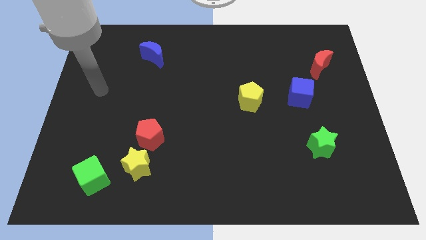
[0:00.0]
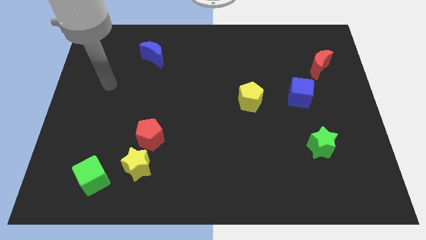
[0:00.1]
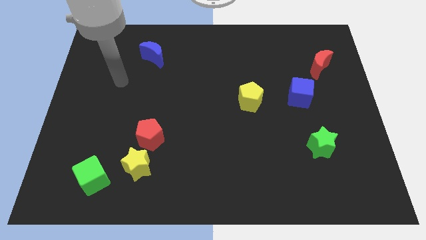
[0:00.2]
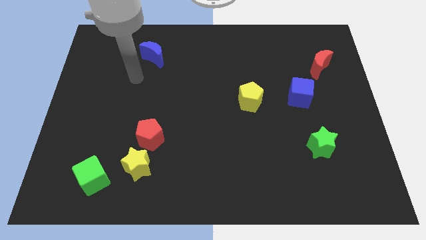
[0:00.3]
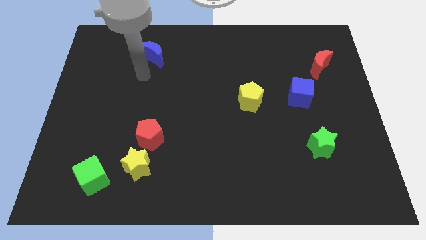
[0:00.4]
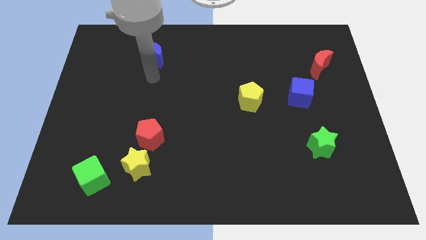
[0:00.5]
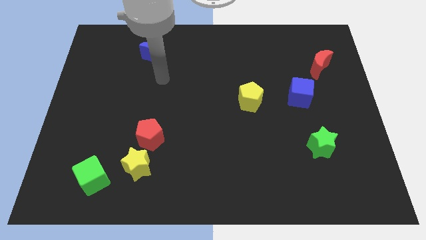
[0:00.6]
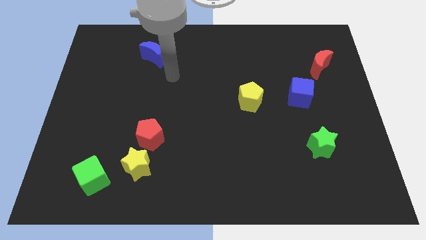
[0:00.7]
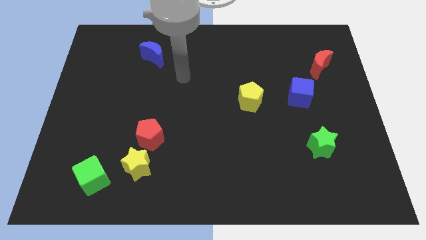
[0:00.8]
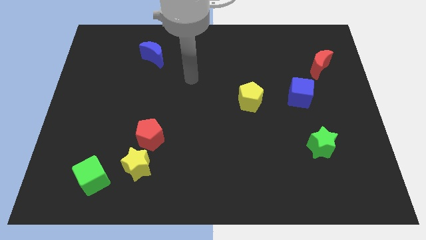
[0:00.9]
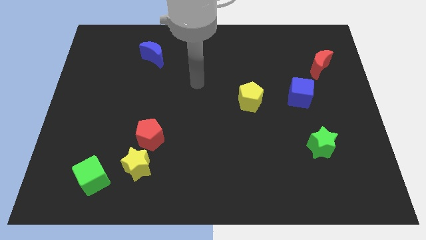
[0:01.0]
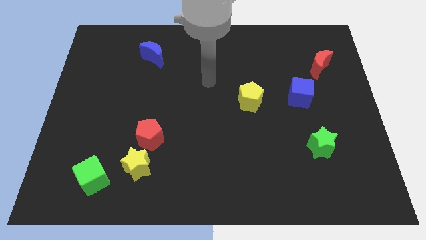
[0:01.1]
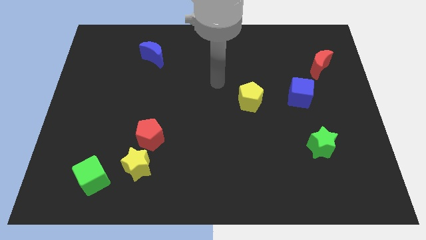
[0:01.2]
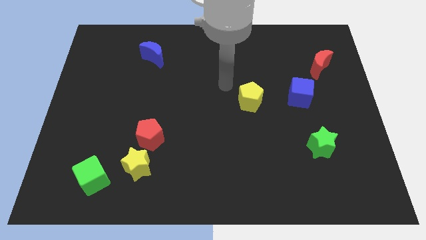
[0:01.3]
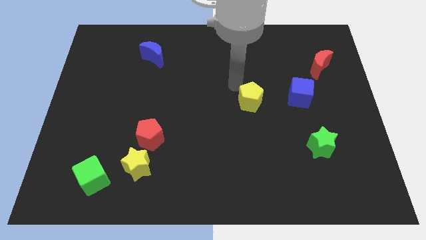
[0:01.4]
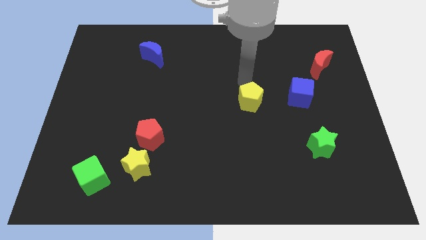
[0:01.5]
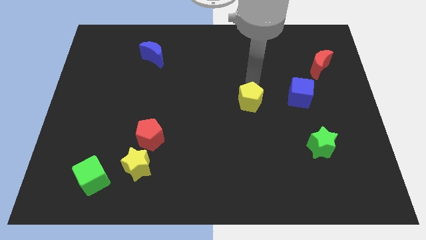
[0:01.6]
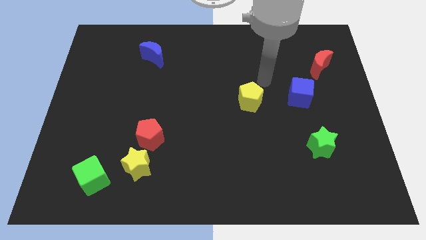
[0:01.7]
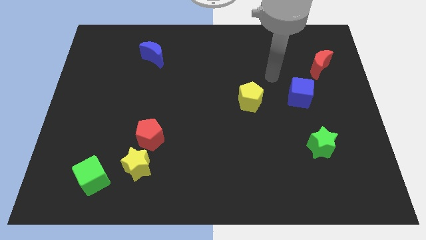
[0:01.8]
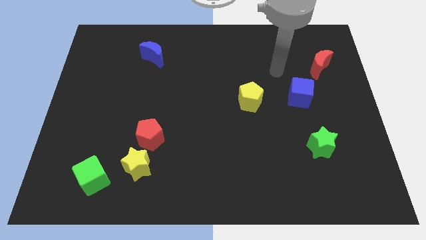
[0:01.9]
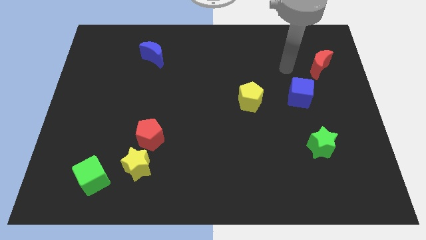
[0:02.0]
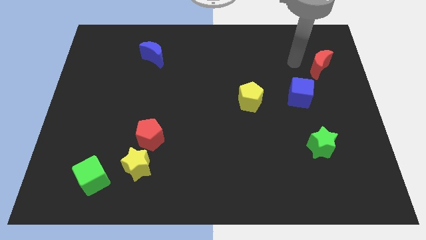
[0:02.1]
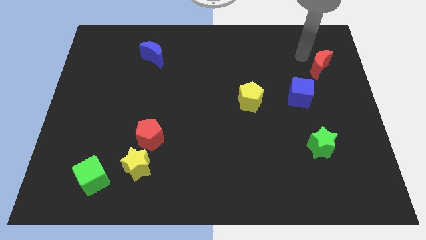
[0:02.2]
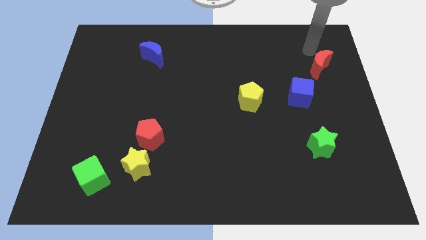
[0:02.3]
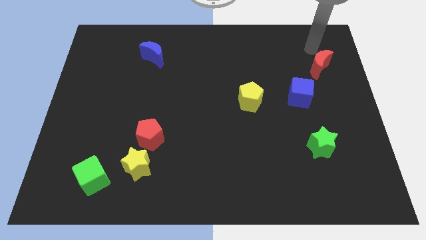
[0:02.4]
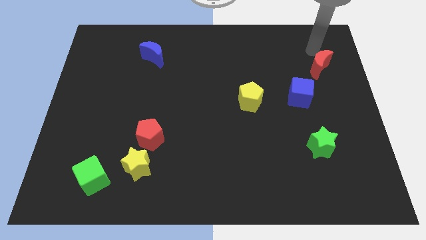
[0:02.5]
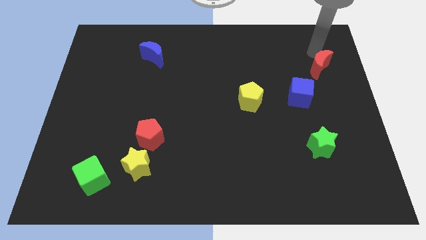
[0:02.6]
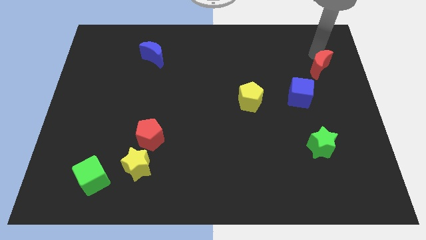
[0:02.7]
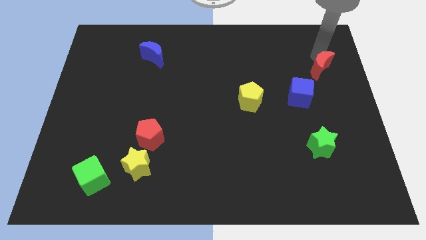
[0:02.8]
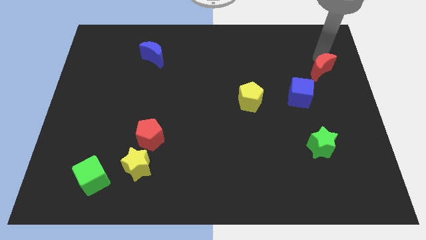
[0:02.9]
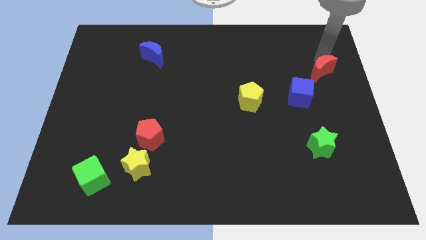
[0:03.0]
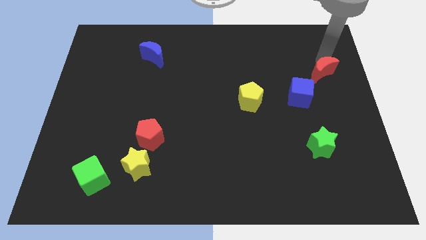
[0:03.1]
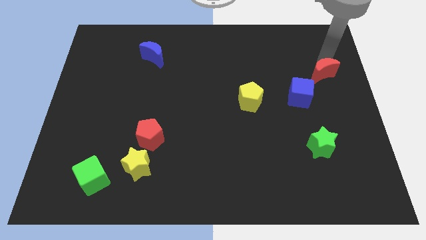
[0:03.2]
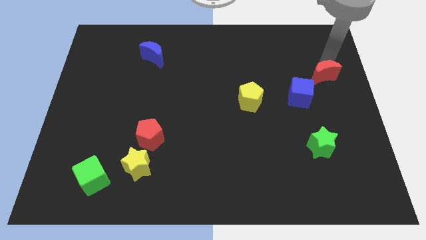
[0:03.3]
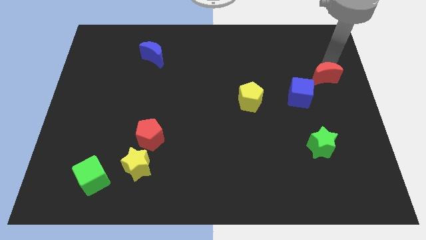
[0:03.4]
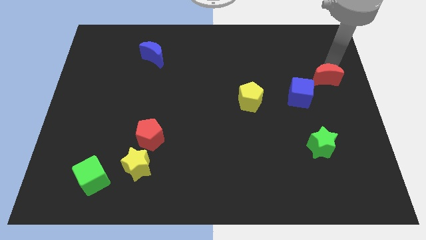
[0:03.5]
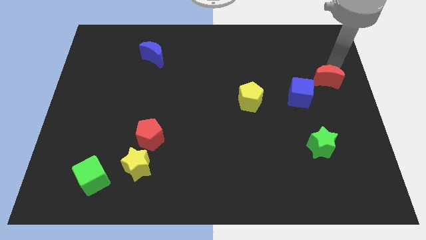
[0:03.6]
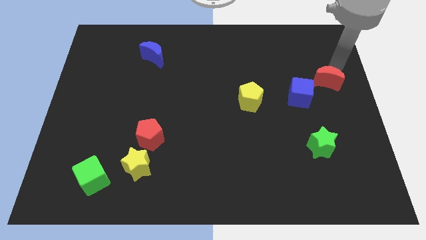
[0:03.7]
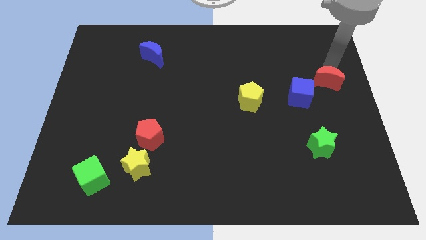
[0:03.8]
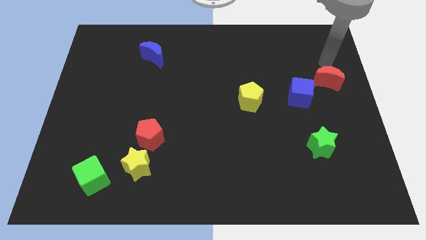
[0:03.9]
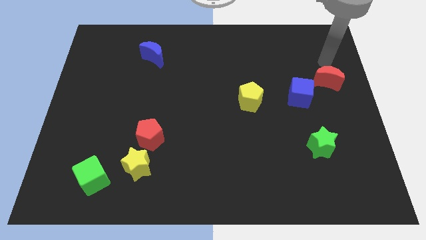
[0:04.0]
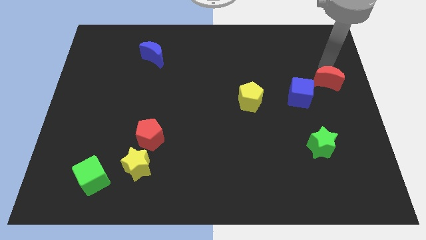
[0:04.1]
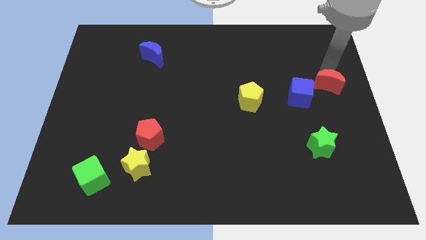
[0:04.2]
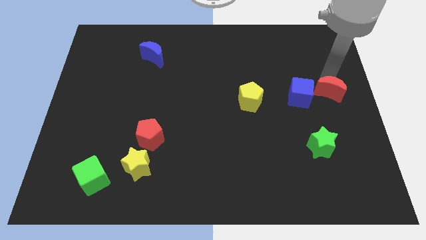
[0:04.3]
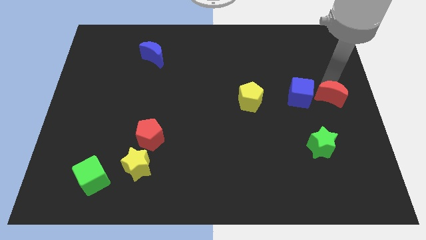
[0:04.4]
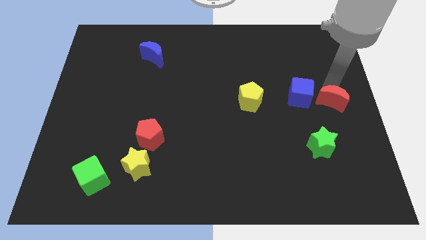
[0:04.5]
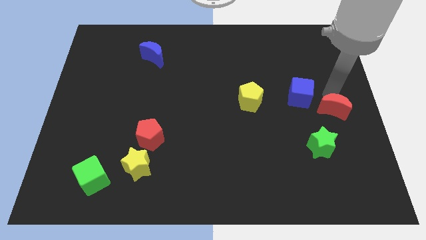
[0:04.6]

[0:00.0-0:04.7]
put the red moon diagonally up and to the right of the green star

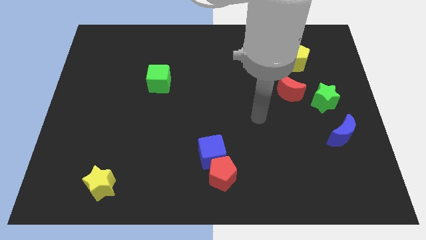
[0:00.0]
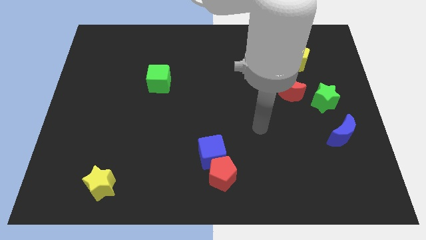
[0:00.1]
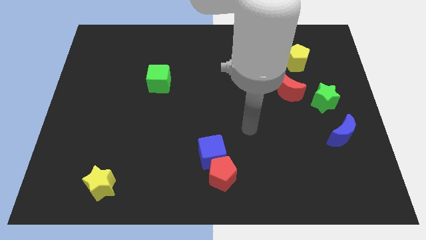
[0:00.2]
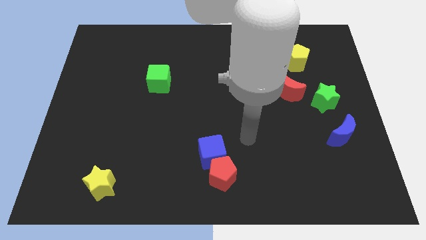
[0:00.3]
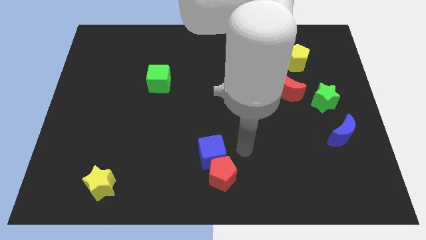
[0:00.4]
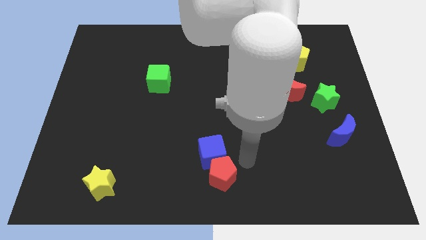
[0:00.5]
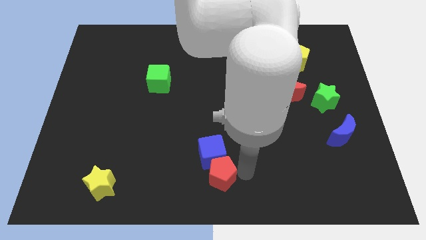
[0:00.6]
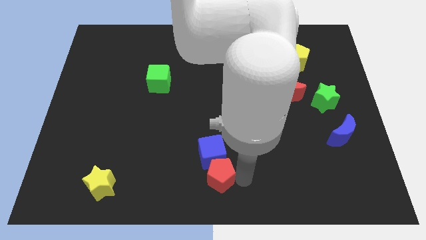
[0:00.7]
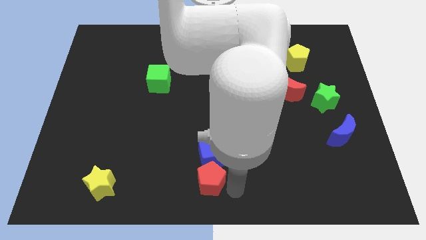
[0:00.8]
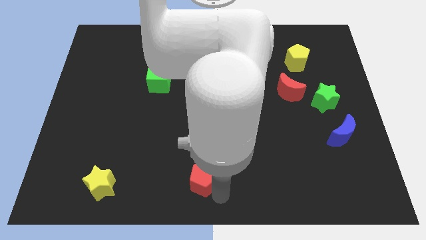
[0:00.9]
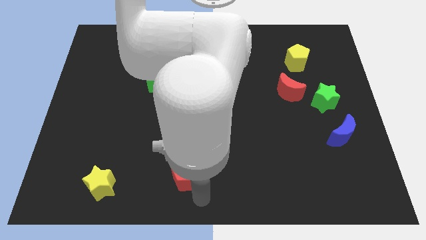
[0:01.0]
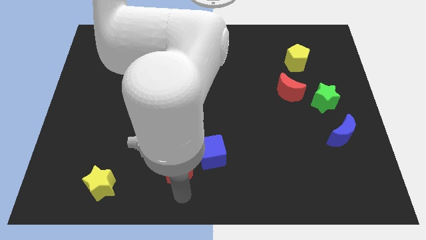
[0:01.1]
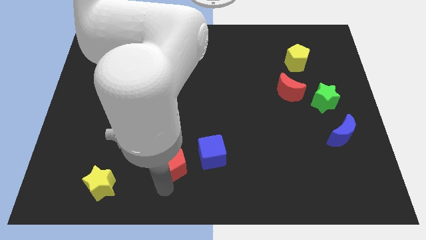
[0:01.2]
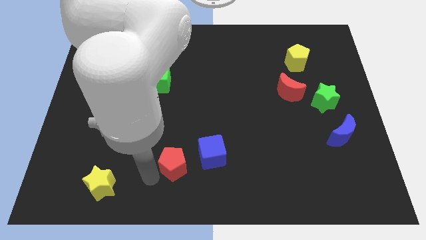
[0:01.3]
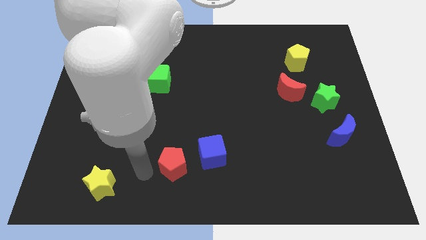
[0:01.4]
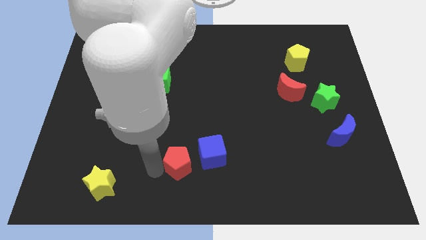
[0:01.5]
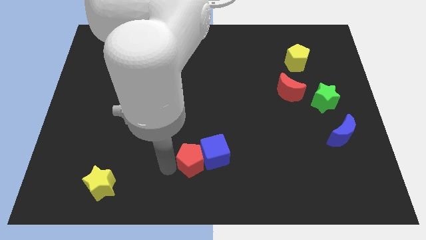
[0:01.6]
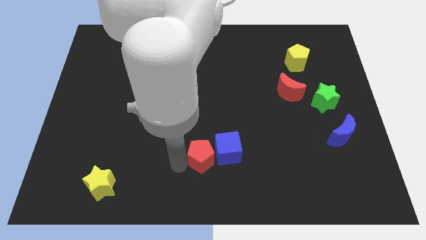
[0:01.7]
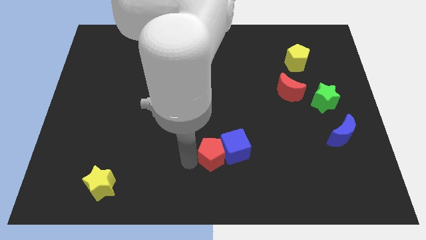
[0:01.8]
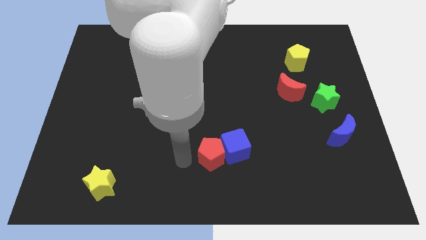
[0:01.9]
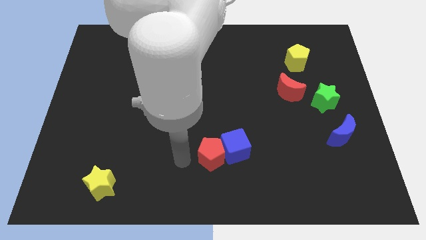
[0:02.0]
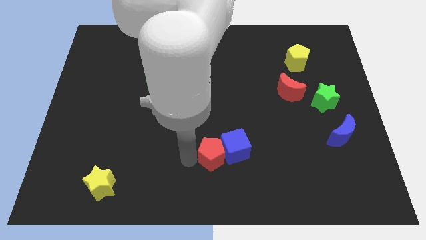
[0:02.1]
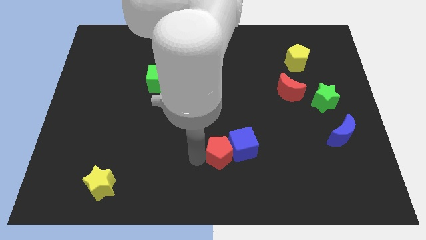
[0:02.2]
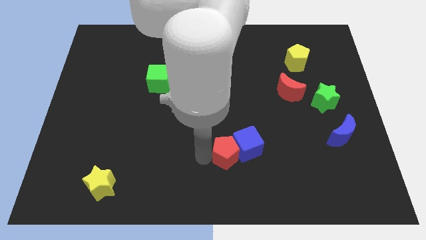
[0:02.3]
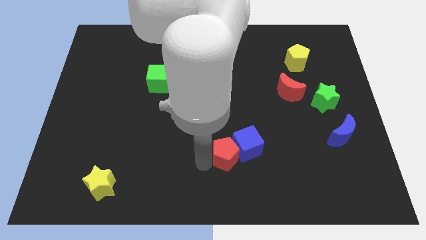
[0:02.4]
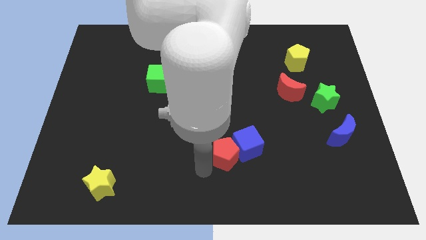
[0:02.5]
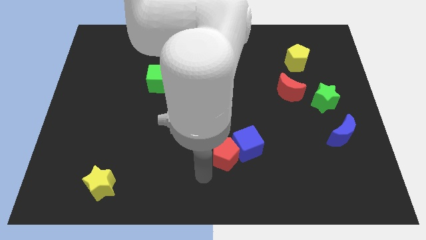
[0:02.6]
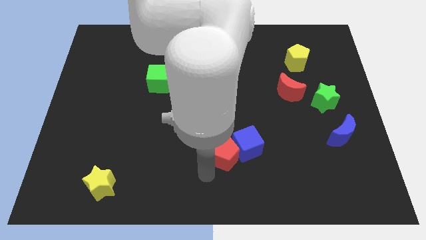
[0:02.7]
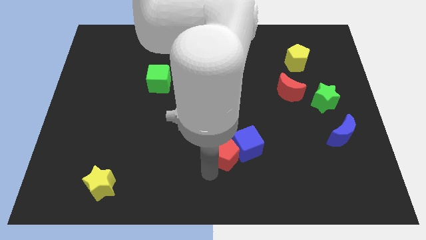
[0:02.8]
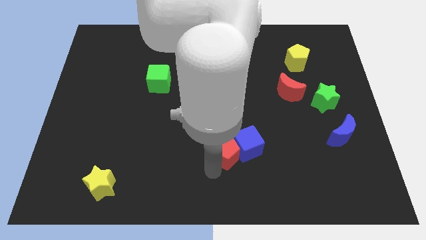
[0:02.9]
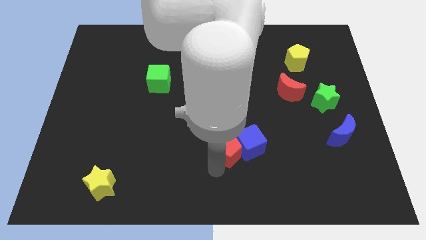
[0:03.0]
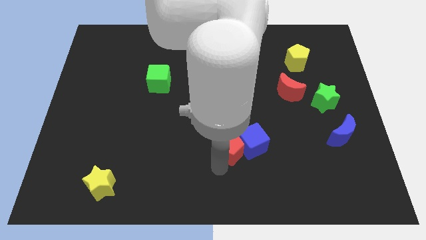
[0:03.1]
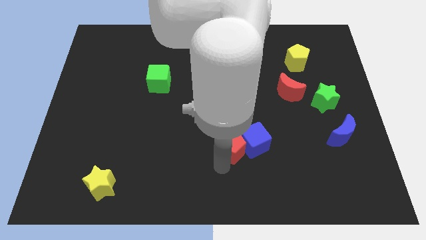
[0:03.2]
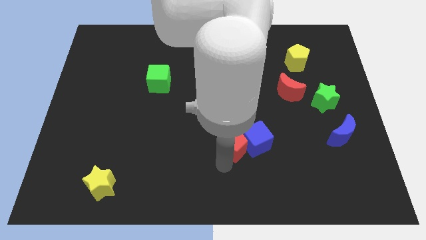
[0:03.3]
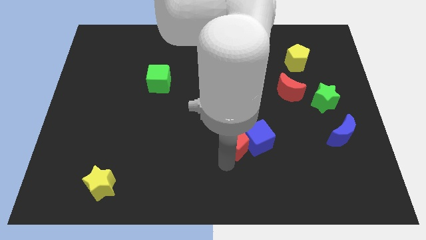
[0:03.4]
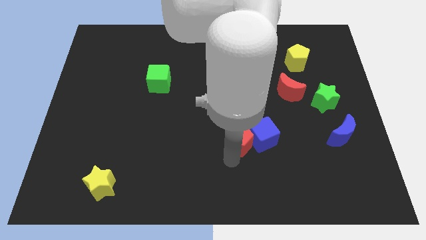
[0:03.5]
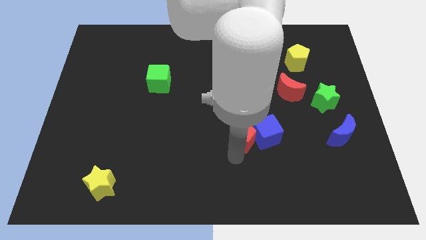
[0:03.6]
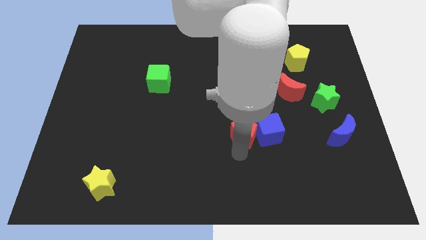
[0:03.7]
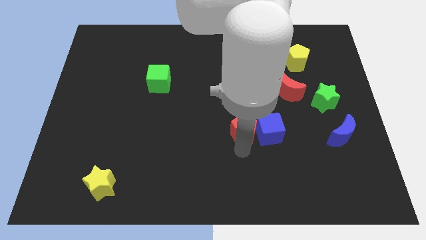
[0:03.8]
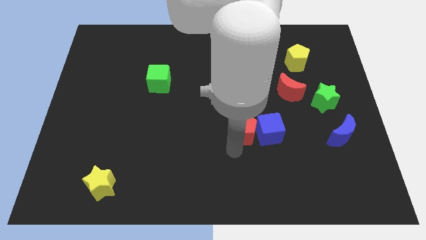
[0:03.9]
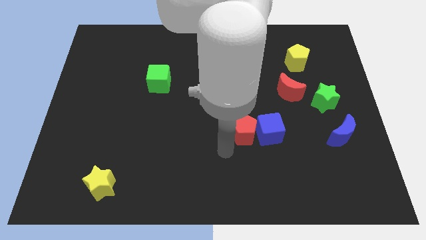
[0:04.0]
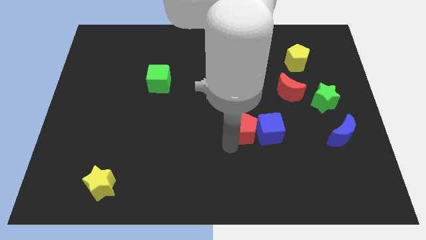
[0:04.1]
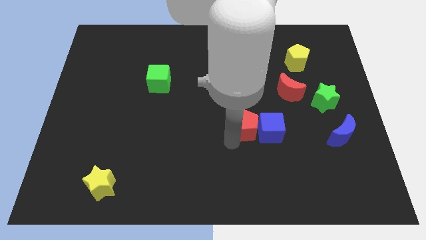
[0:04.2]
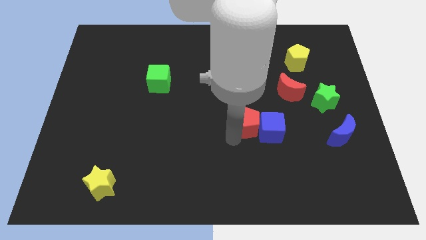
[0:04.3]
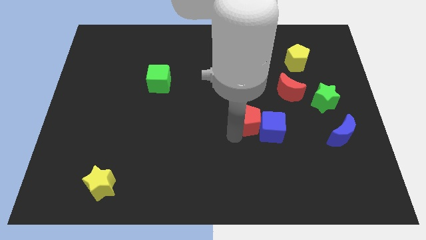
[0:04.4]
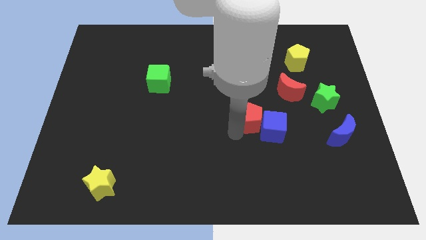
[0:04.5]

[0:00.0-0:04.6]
move the red pentagon to the bottom left of the red moon
